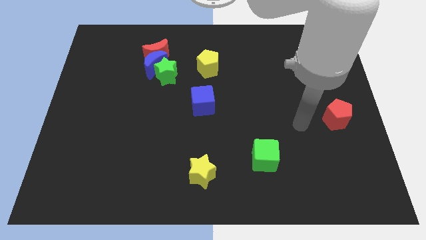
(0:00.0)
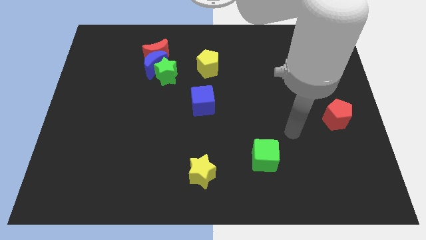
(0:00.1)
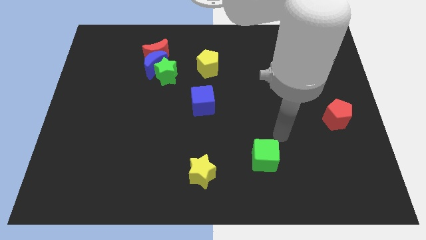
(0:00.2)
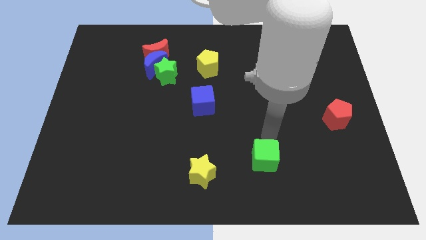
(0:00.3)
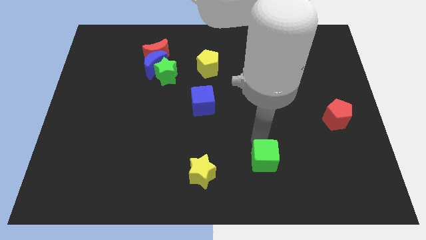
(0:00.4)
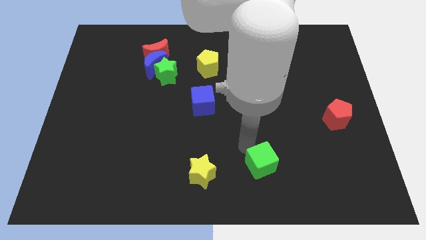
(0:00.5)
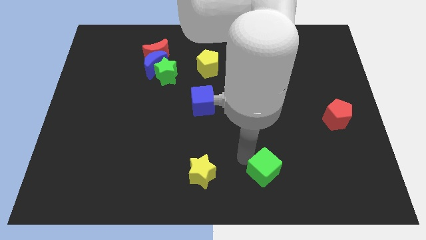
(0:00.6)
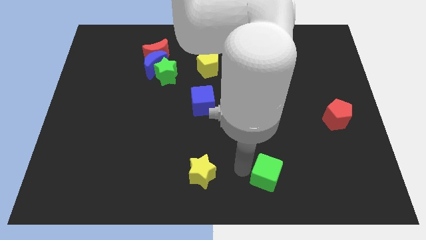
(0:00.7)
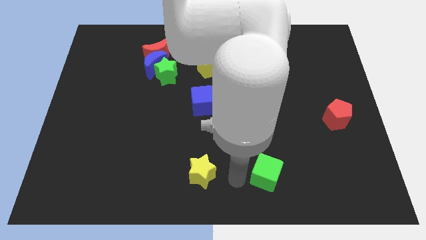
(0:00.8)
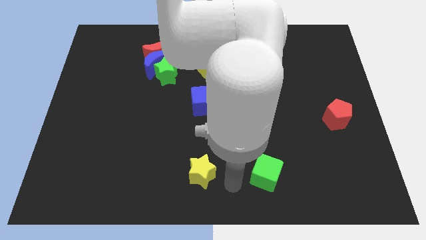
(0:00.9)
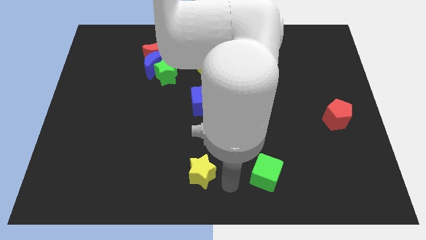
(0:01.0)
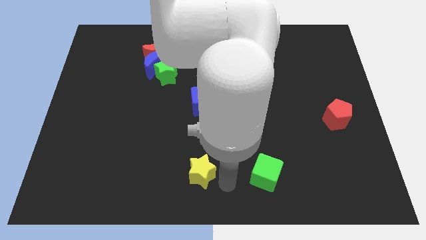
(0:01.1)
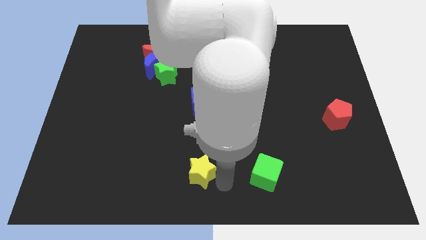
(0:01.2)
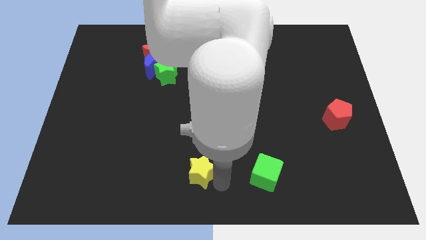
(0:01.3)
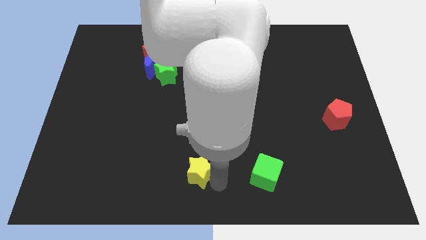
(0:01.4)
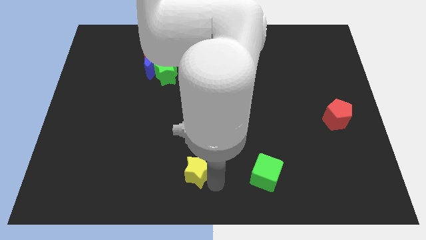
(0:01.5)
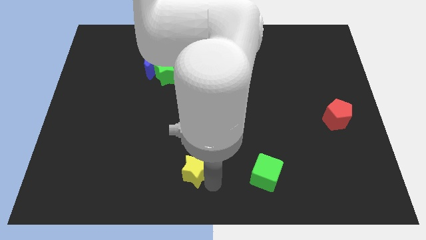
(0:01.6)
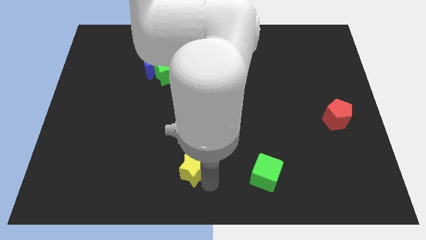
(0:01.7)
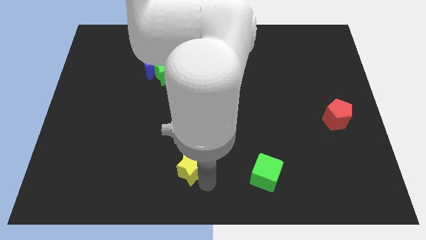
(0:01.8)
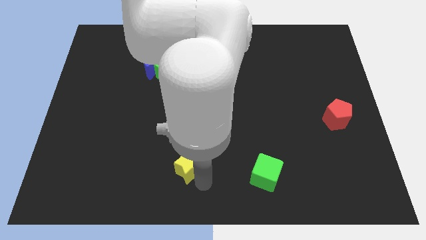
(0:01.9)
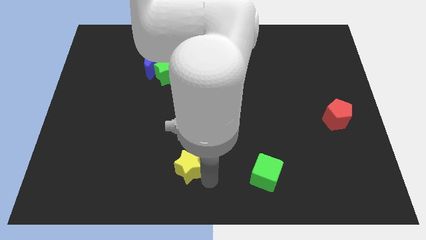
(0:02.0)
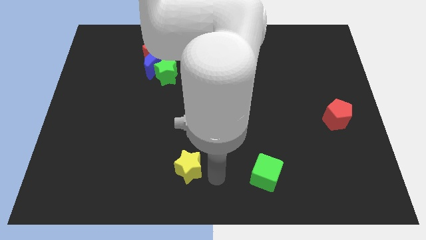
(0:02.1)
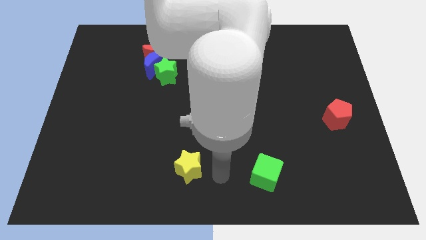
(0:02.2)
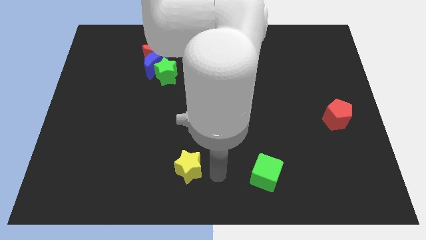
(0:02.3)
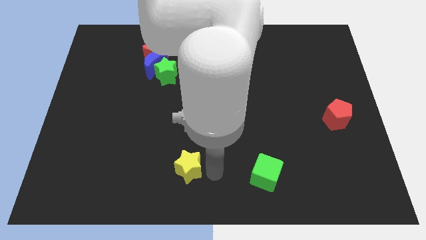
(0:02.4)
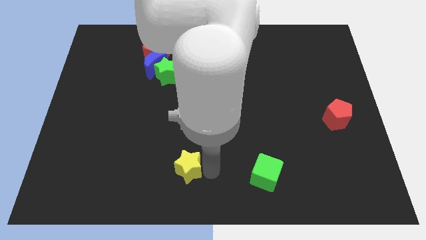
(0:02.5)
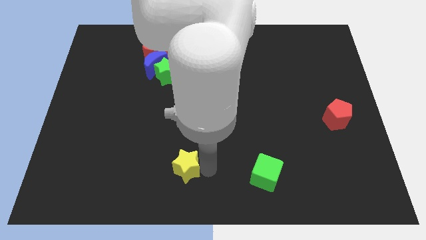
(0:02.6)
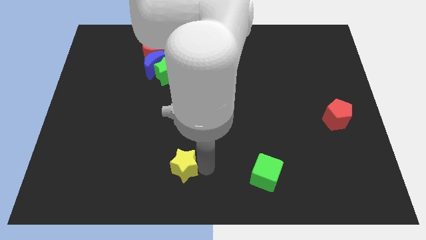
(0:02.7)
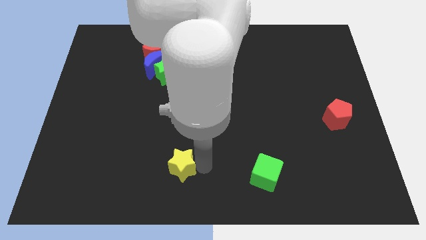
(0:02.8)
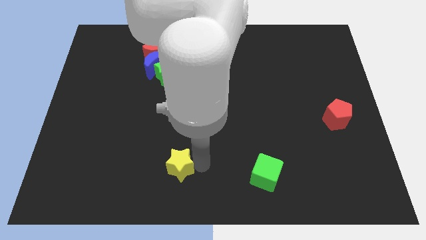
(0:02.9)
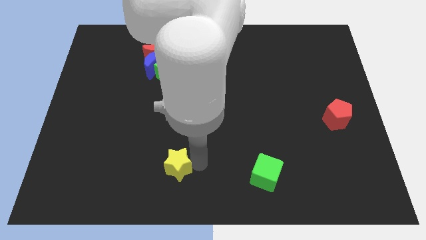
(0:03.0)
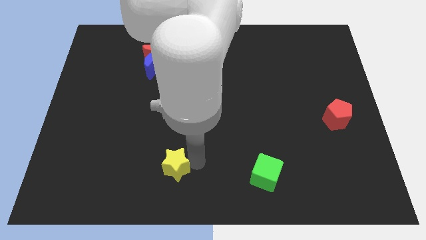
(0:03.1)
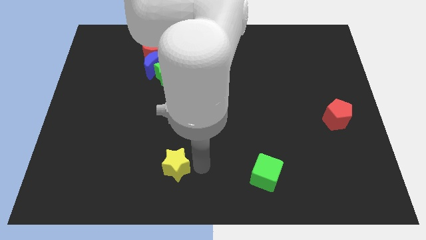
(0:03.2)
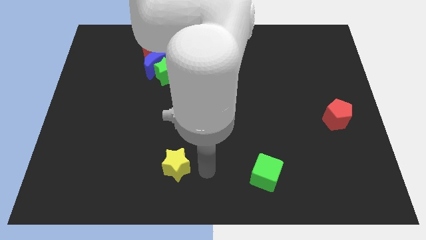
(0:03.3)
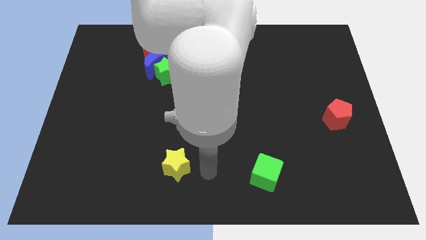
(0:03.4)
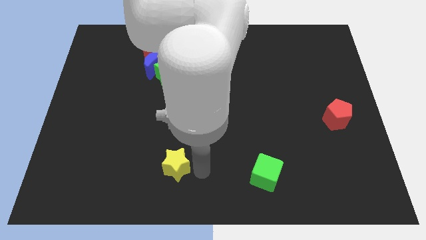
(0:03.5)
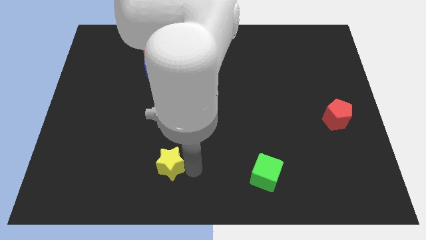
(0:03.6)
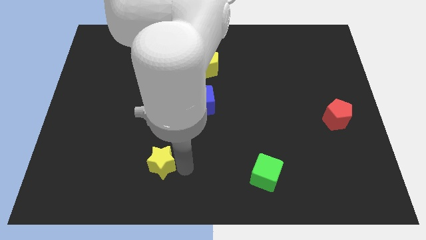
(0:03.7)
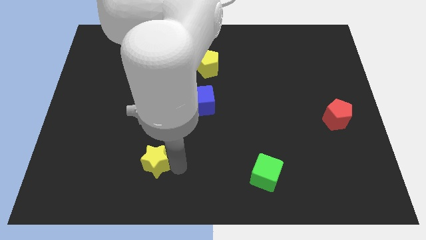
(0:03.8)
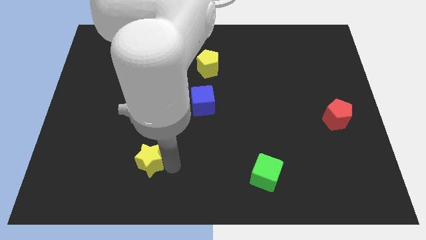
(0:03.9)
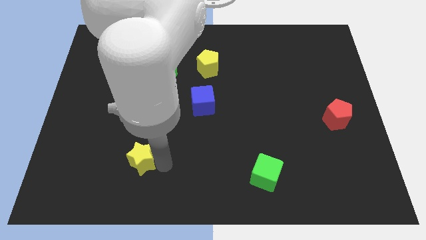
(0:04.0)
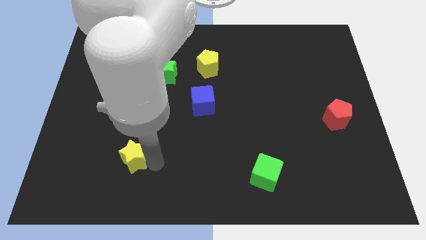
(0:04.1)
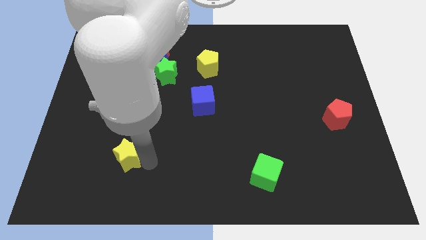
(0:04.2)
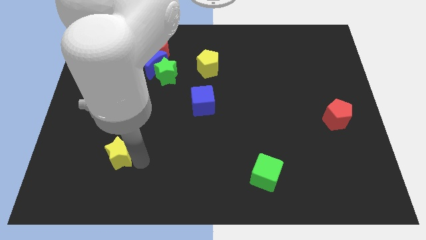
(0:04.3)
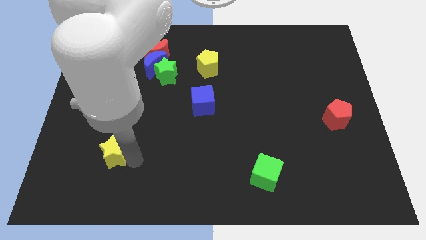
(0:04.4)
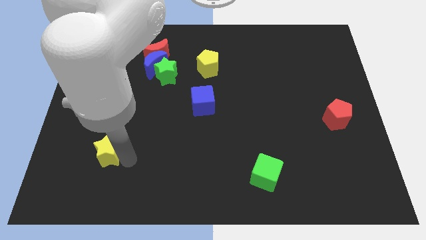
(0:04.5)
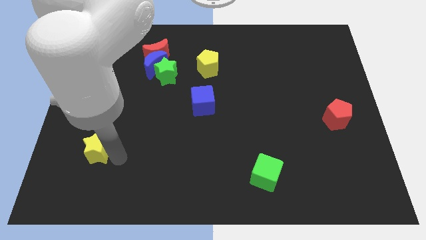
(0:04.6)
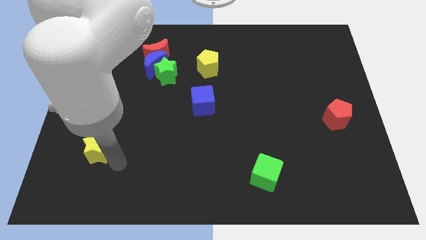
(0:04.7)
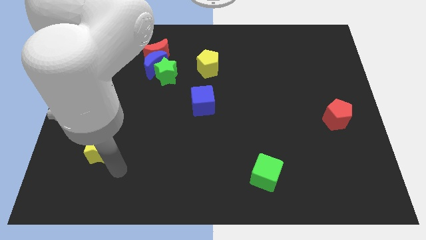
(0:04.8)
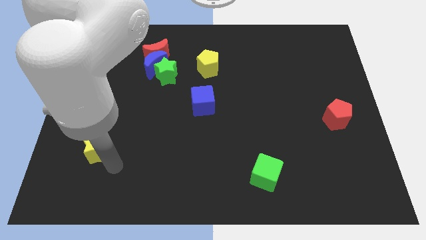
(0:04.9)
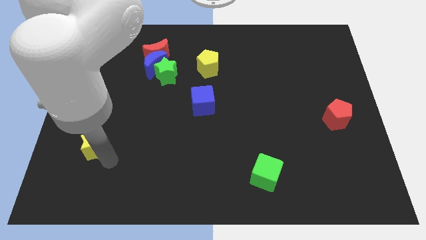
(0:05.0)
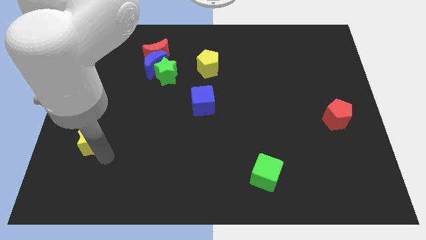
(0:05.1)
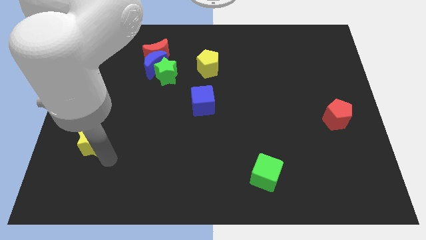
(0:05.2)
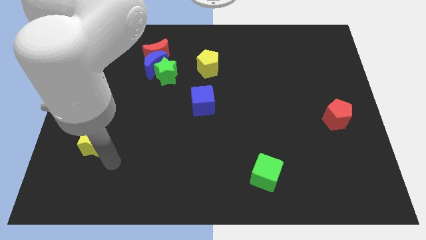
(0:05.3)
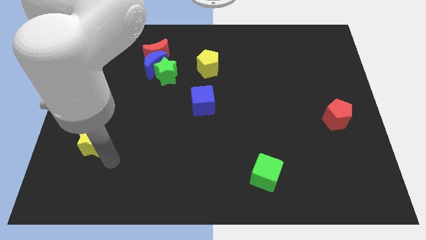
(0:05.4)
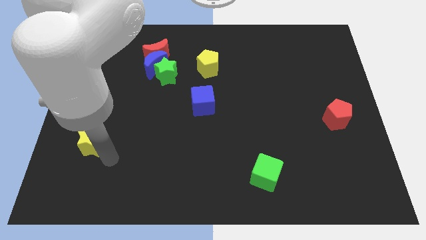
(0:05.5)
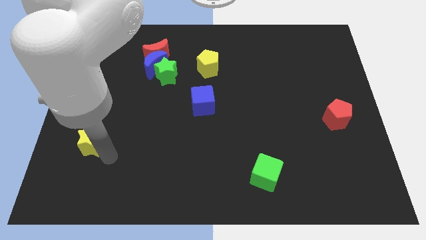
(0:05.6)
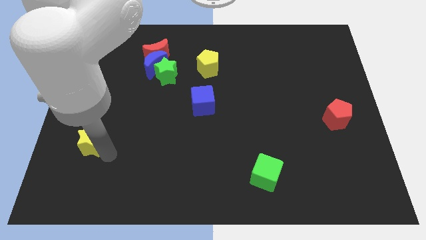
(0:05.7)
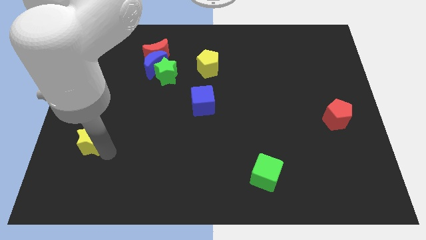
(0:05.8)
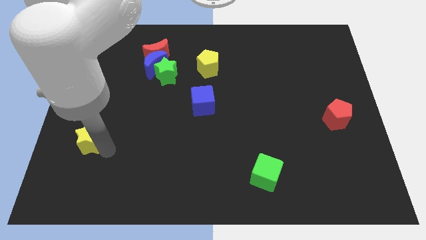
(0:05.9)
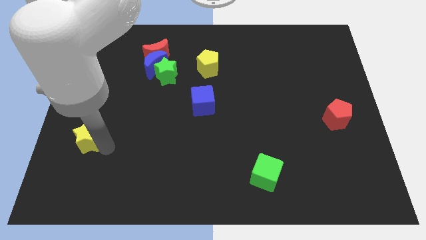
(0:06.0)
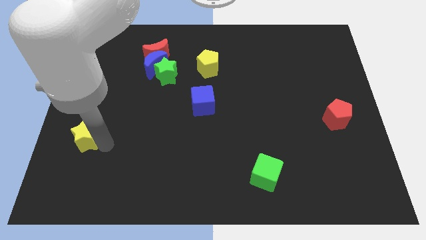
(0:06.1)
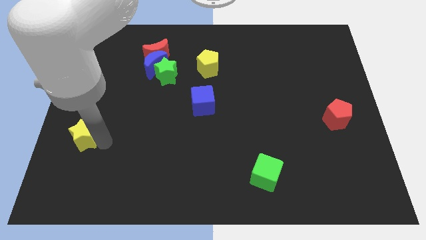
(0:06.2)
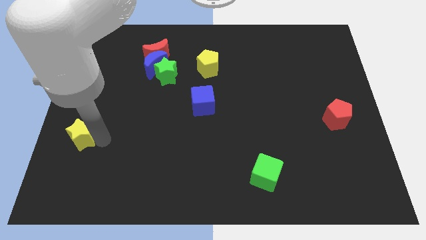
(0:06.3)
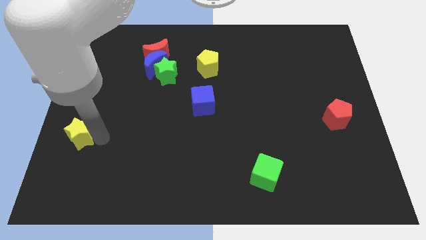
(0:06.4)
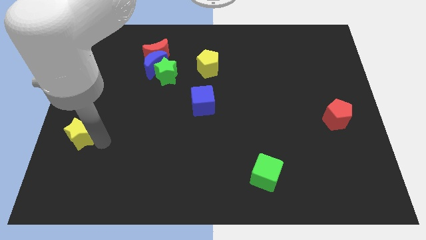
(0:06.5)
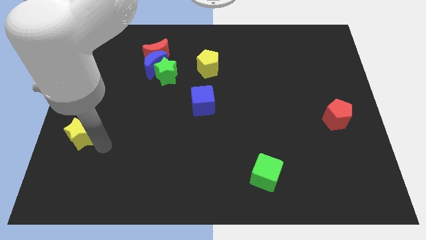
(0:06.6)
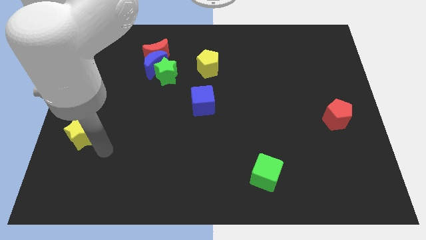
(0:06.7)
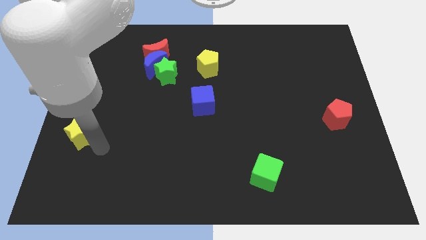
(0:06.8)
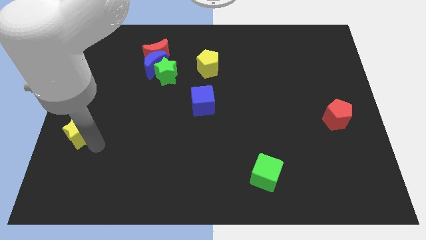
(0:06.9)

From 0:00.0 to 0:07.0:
slide the yellow star to the left side of the board
